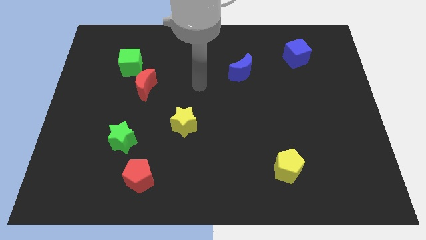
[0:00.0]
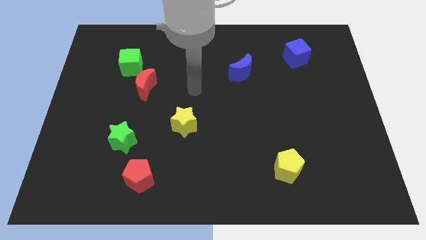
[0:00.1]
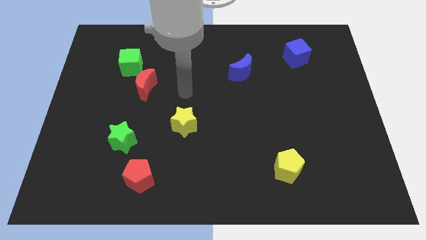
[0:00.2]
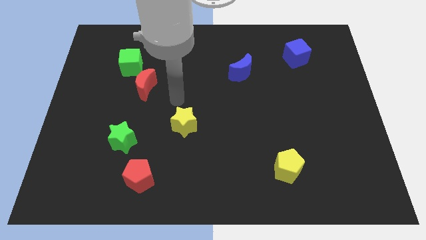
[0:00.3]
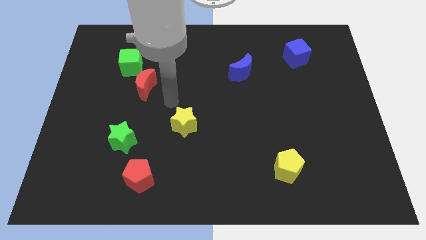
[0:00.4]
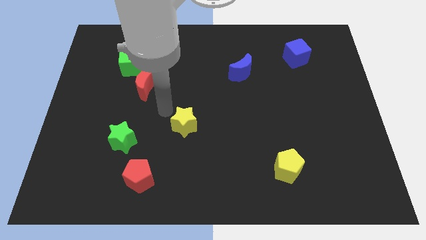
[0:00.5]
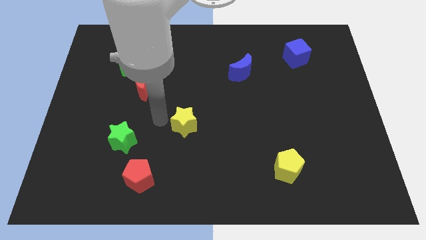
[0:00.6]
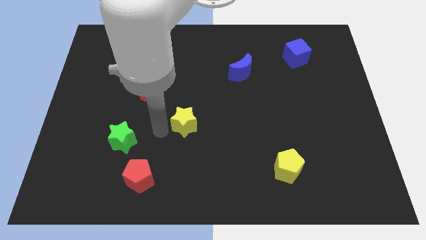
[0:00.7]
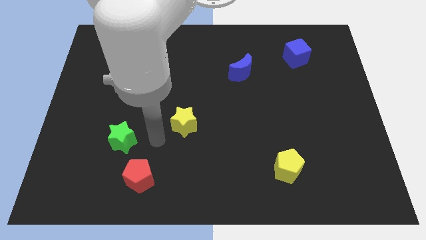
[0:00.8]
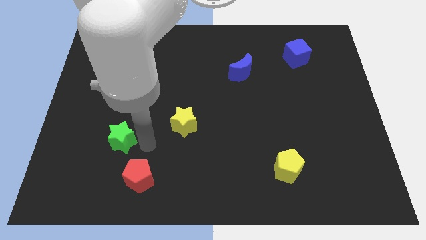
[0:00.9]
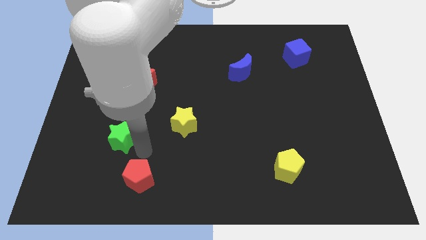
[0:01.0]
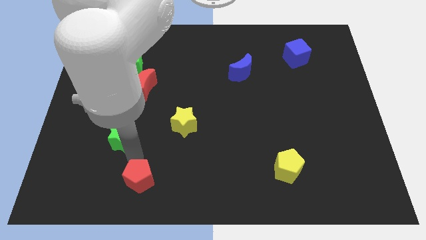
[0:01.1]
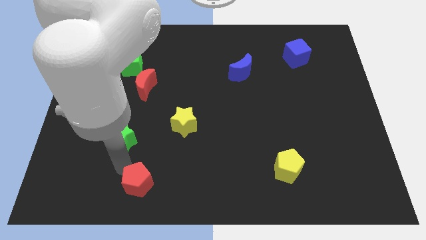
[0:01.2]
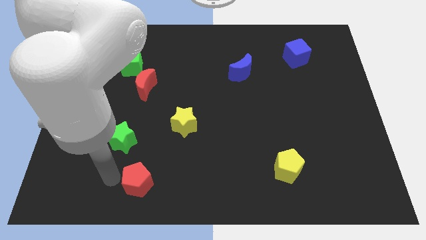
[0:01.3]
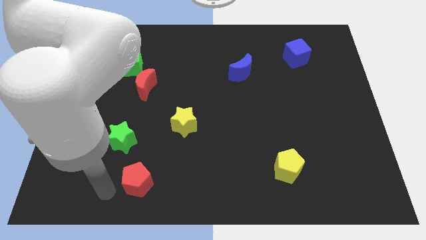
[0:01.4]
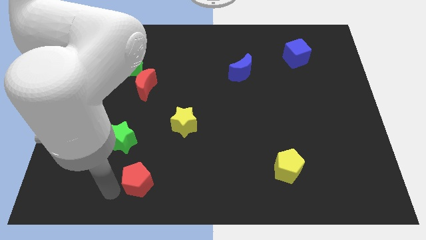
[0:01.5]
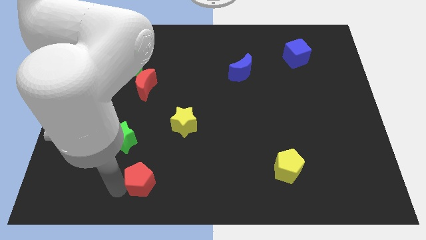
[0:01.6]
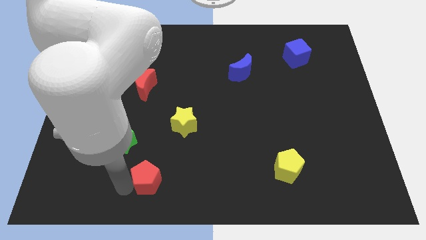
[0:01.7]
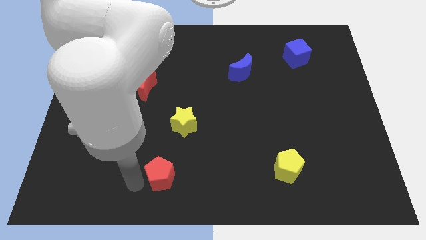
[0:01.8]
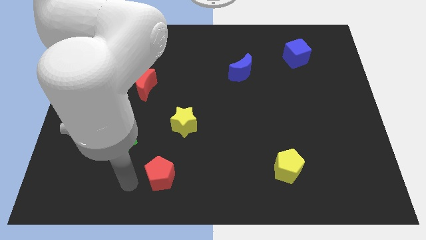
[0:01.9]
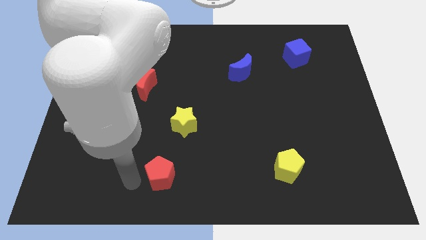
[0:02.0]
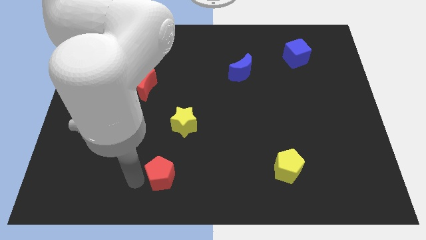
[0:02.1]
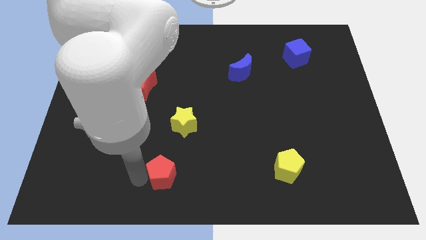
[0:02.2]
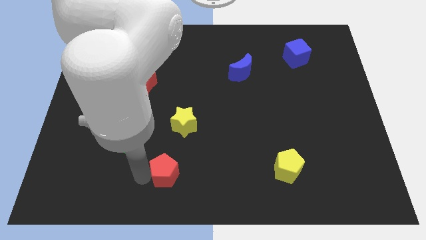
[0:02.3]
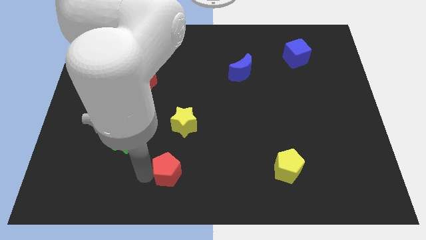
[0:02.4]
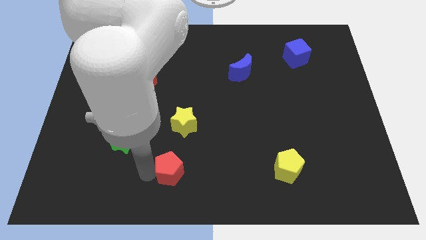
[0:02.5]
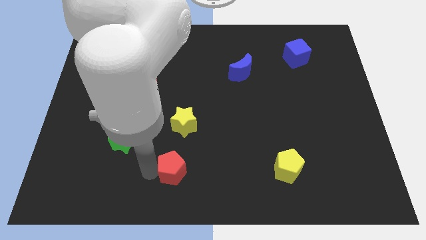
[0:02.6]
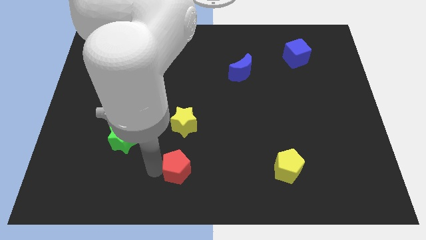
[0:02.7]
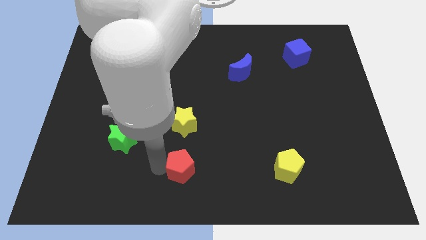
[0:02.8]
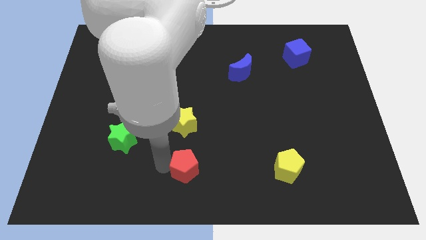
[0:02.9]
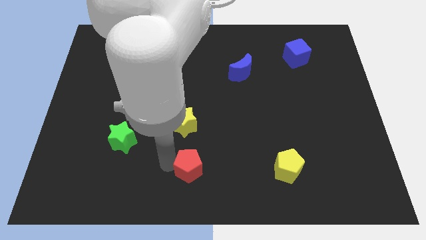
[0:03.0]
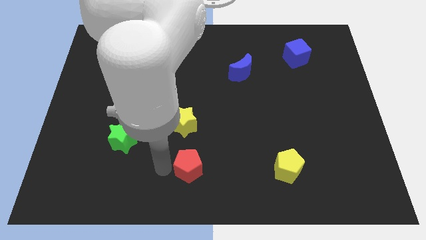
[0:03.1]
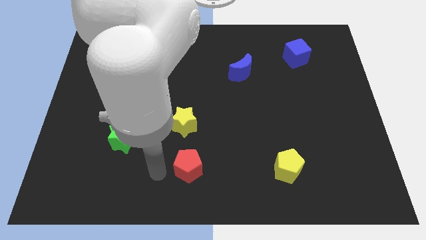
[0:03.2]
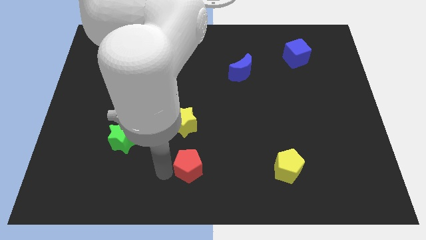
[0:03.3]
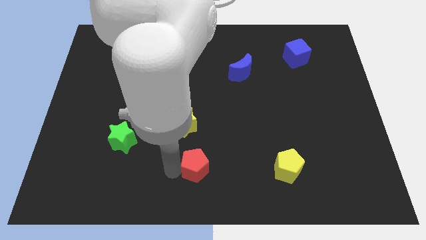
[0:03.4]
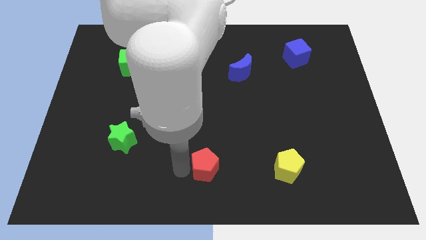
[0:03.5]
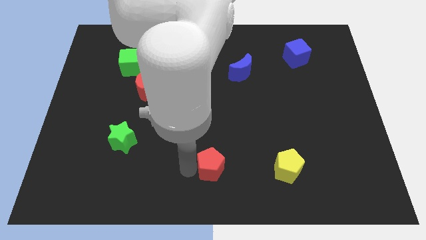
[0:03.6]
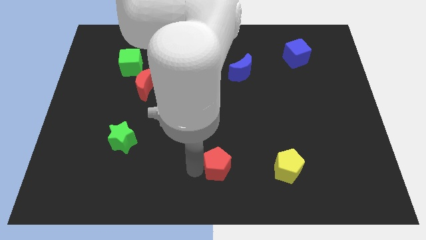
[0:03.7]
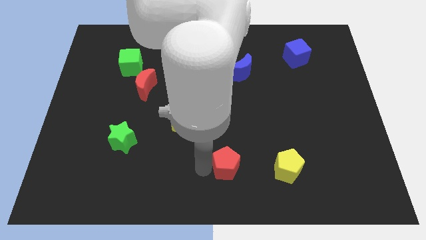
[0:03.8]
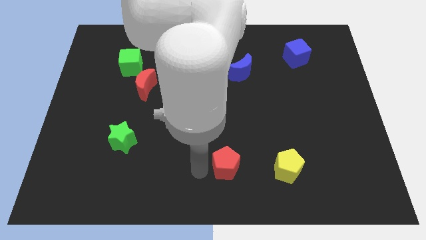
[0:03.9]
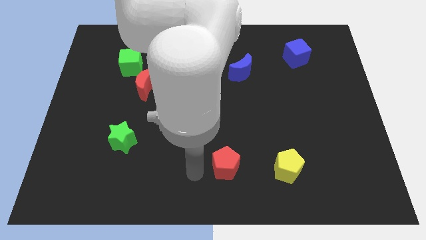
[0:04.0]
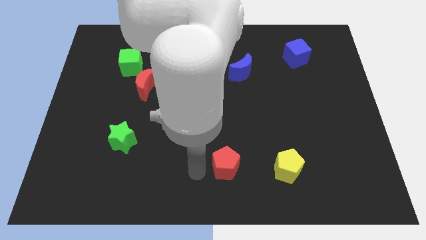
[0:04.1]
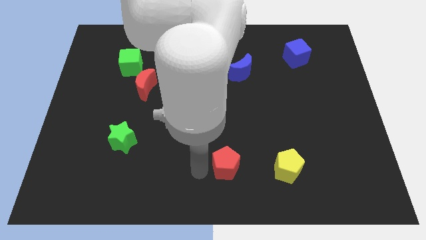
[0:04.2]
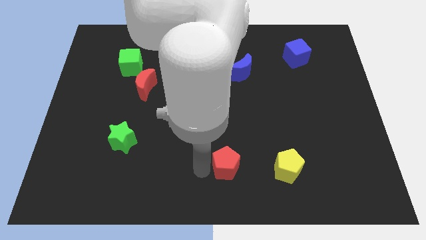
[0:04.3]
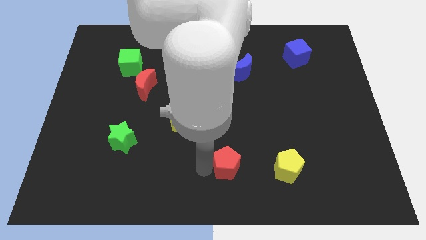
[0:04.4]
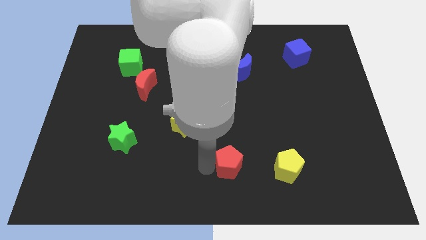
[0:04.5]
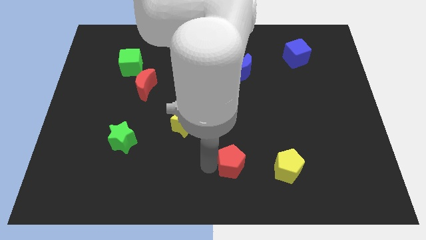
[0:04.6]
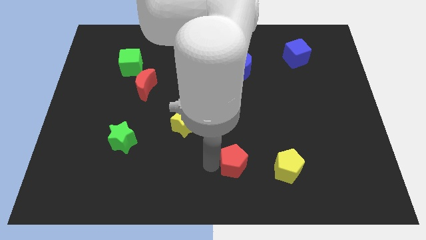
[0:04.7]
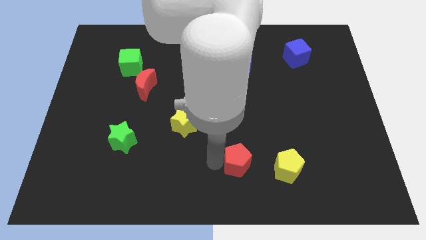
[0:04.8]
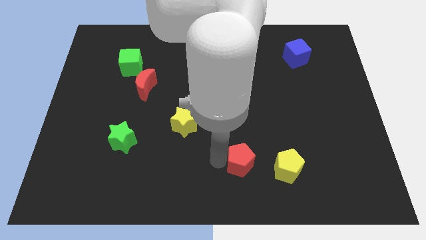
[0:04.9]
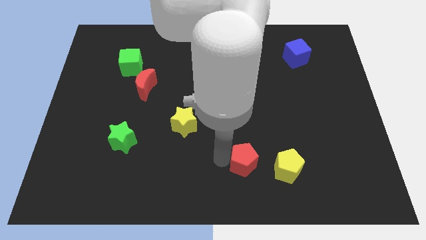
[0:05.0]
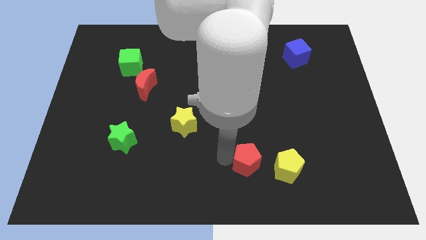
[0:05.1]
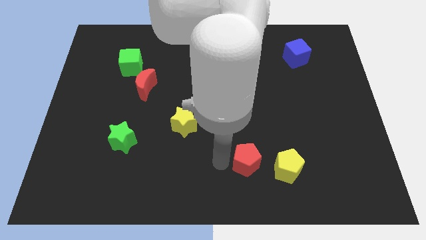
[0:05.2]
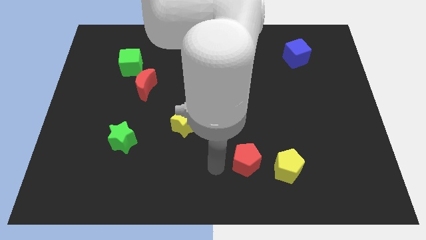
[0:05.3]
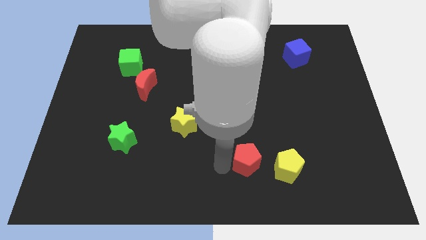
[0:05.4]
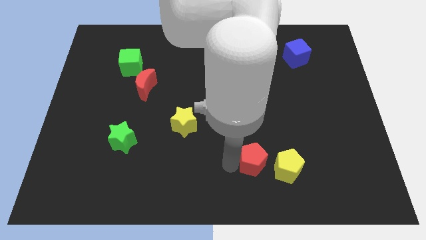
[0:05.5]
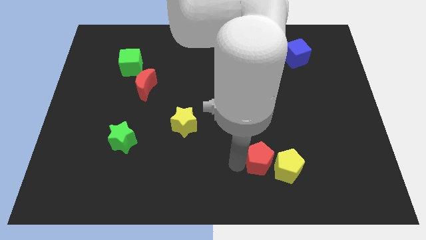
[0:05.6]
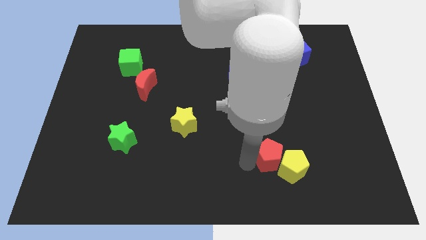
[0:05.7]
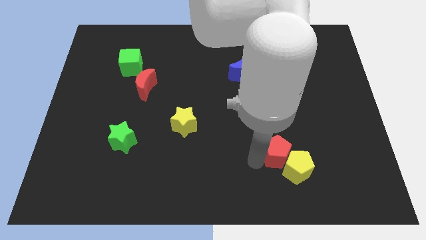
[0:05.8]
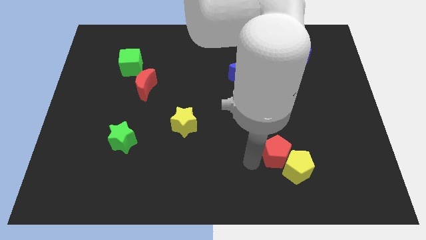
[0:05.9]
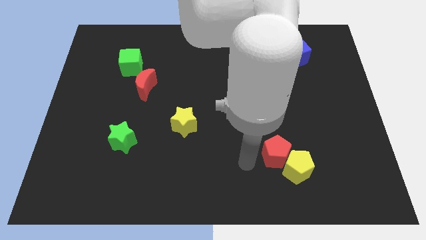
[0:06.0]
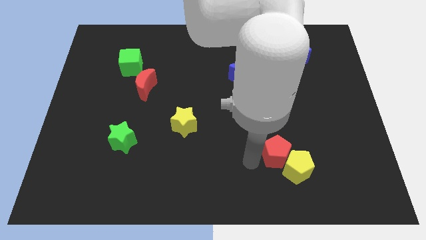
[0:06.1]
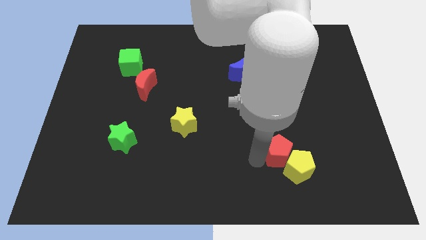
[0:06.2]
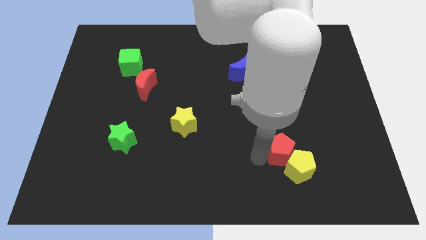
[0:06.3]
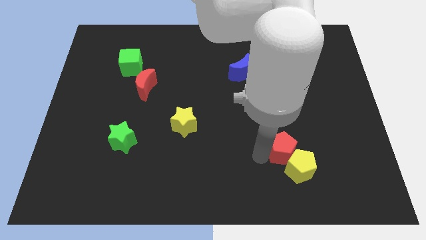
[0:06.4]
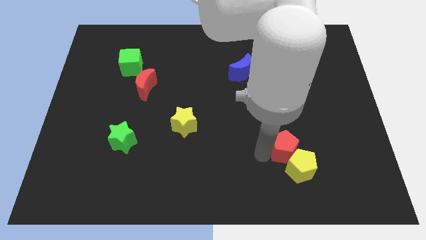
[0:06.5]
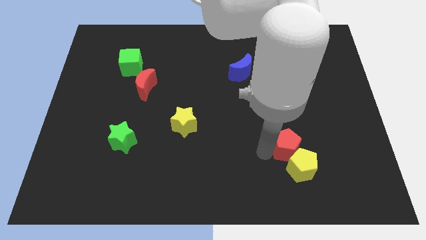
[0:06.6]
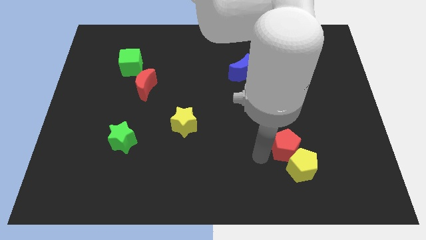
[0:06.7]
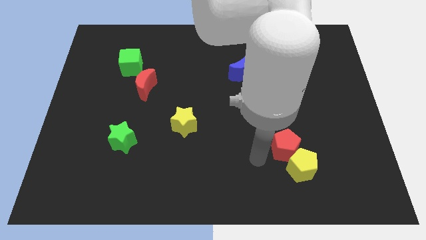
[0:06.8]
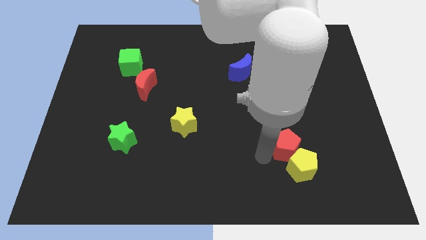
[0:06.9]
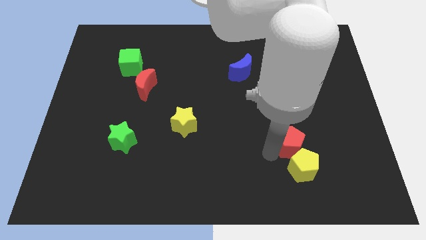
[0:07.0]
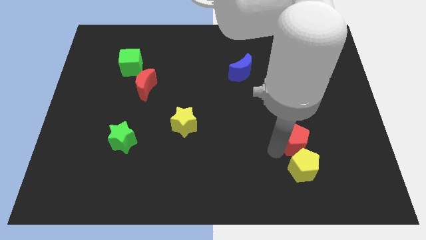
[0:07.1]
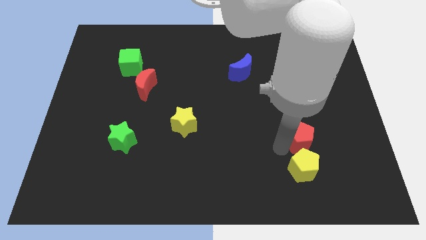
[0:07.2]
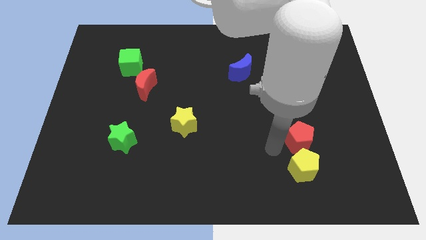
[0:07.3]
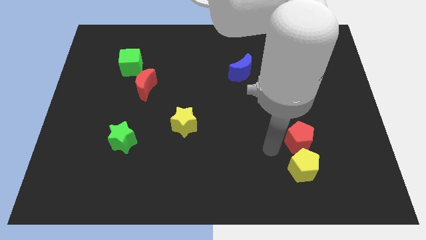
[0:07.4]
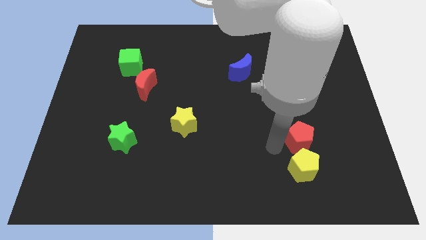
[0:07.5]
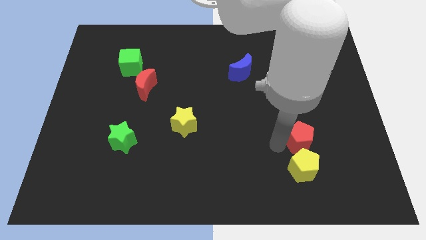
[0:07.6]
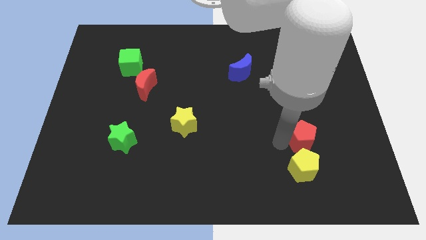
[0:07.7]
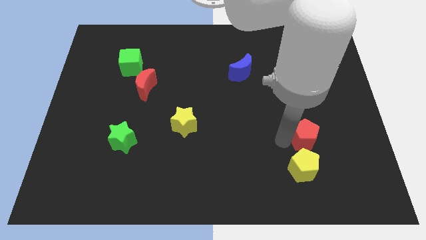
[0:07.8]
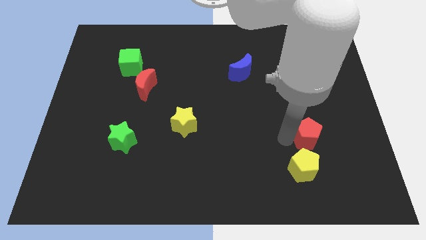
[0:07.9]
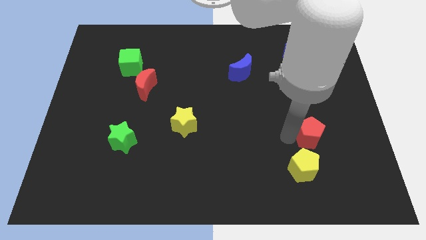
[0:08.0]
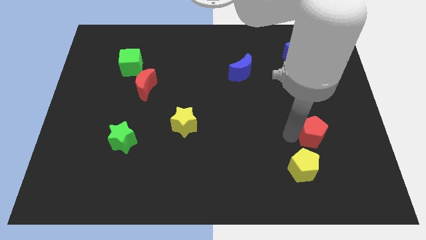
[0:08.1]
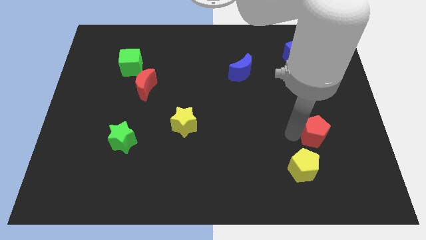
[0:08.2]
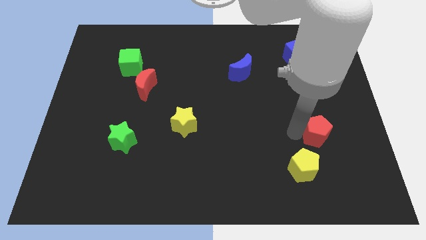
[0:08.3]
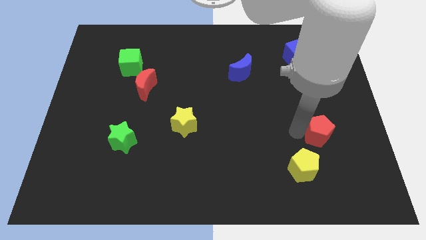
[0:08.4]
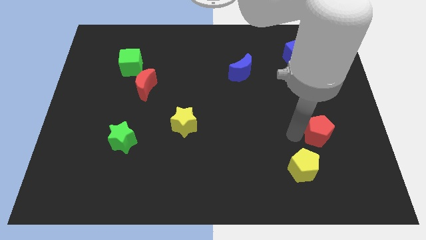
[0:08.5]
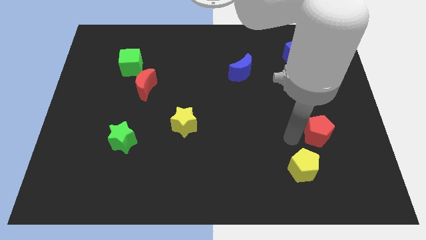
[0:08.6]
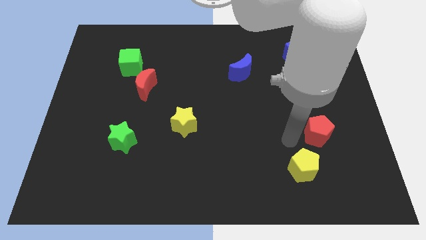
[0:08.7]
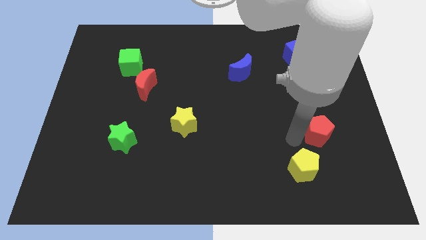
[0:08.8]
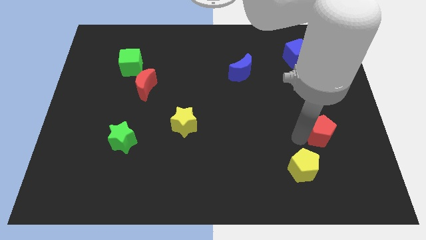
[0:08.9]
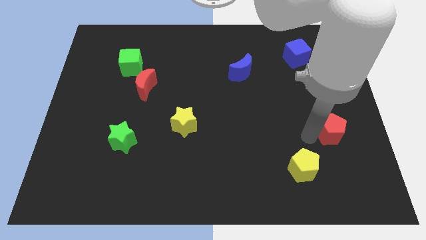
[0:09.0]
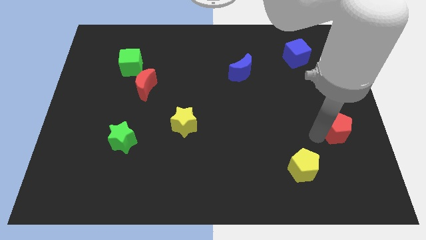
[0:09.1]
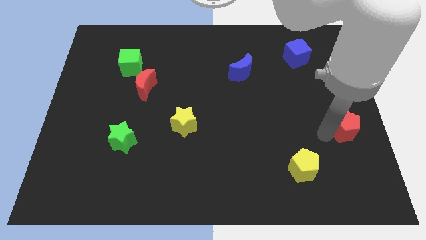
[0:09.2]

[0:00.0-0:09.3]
move the red pentagon to the right side of the board
